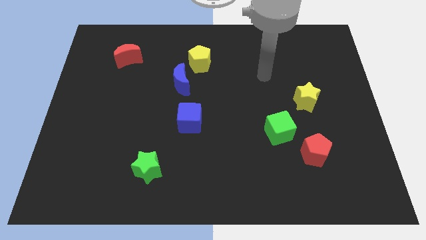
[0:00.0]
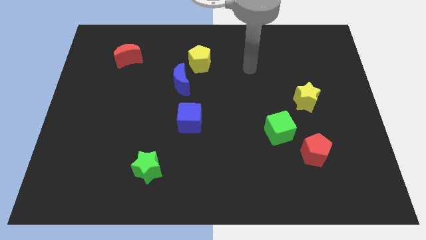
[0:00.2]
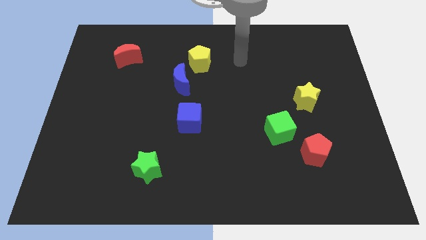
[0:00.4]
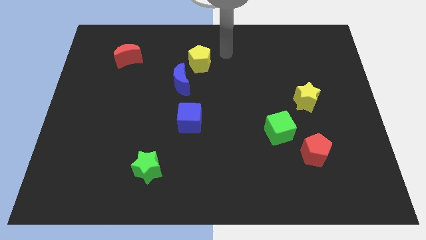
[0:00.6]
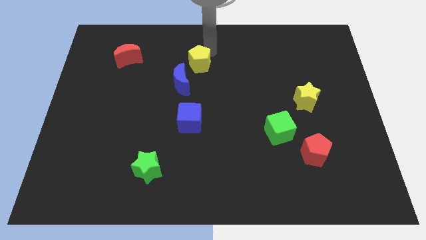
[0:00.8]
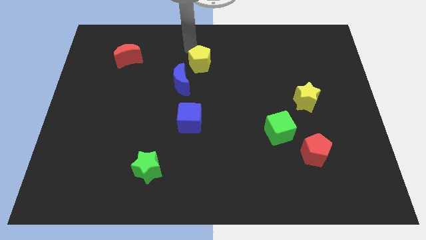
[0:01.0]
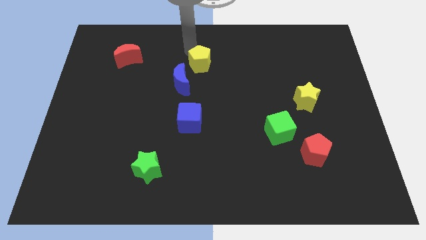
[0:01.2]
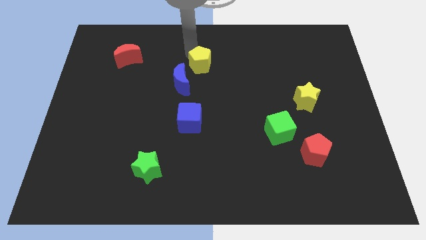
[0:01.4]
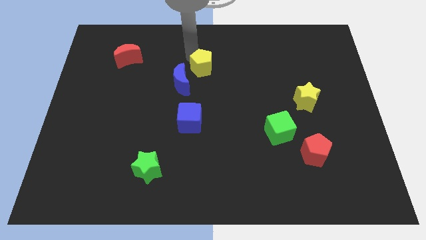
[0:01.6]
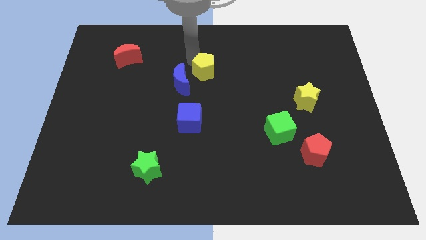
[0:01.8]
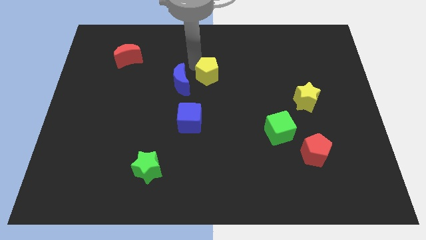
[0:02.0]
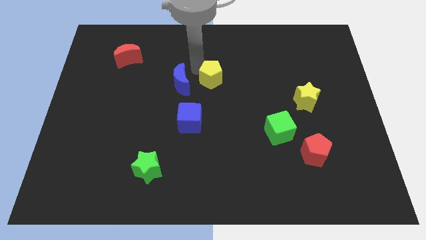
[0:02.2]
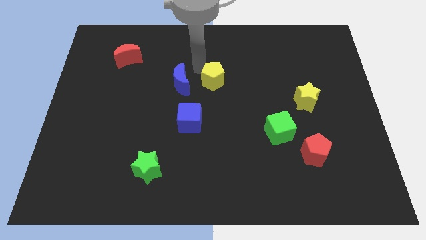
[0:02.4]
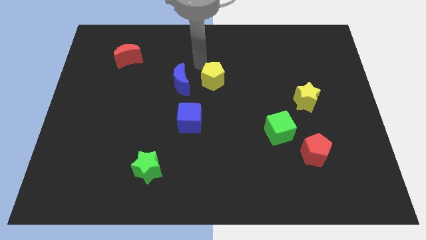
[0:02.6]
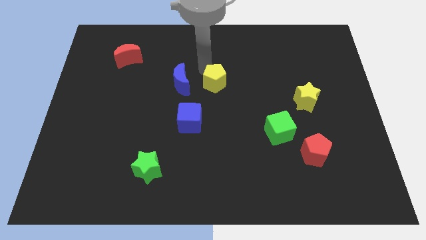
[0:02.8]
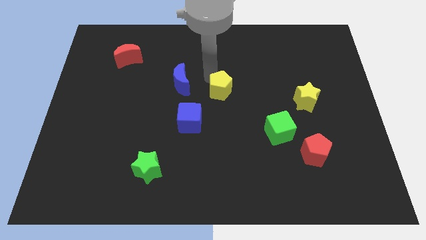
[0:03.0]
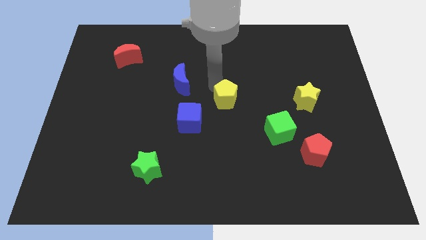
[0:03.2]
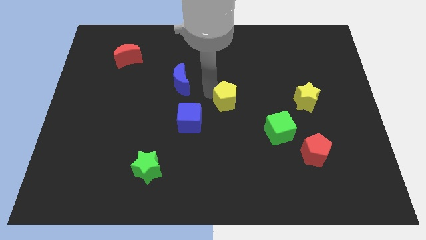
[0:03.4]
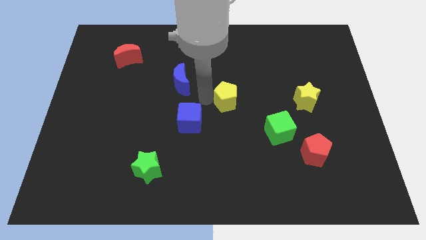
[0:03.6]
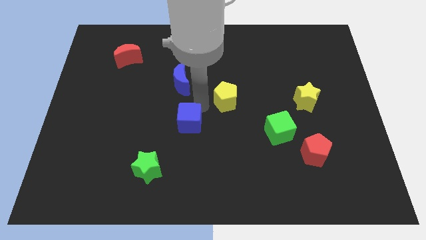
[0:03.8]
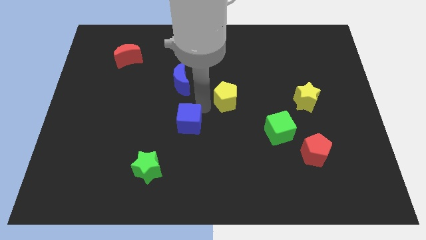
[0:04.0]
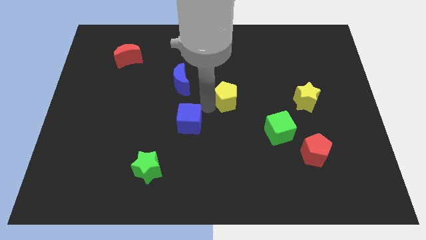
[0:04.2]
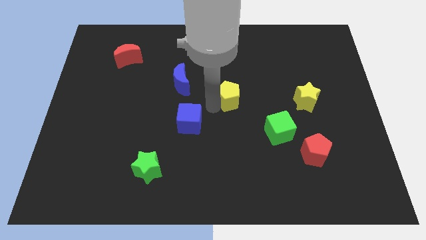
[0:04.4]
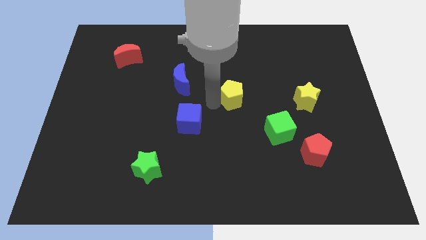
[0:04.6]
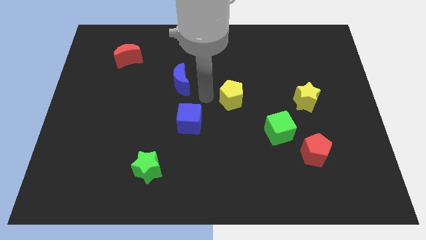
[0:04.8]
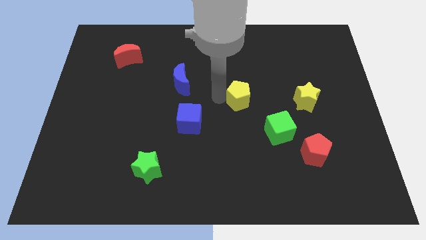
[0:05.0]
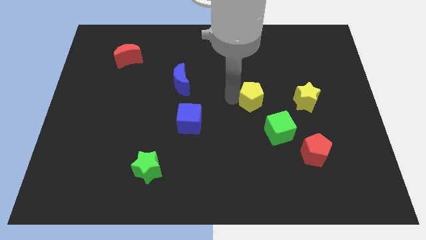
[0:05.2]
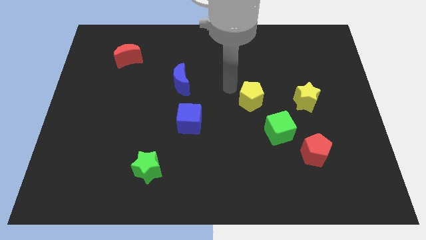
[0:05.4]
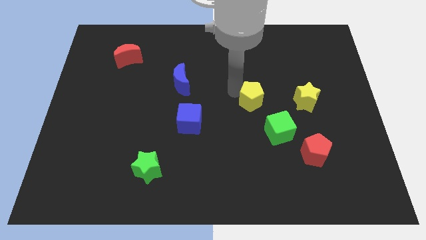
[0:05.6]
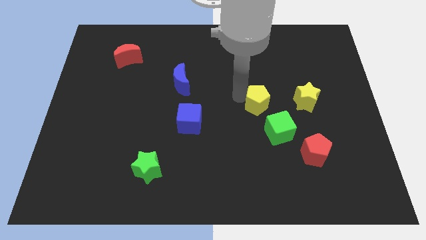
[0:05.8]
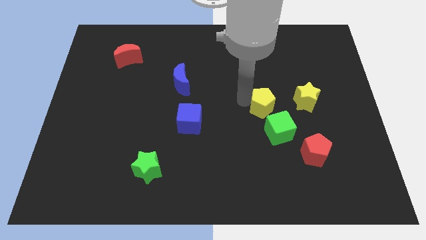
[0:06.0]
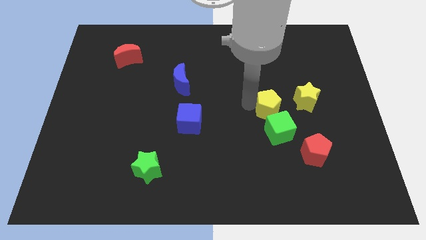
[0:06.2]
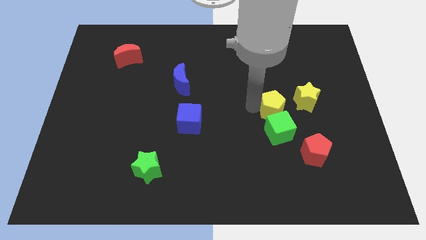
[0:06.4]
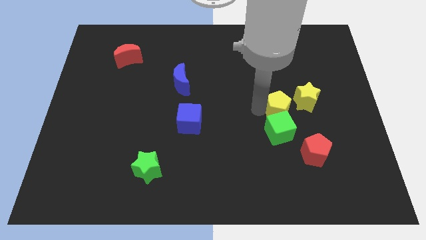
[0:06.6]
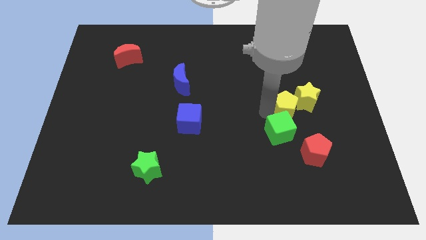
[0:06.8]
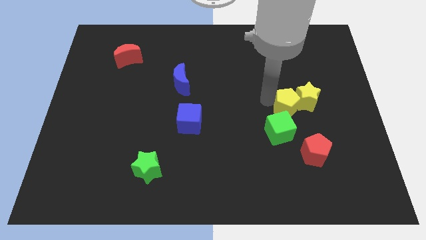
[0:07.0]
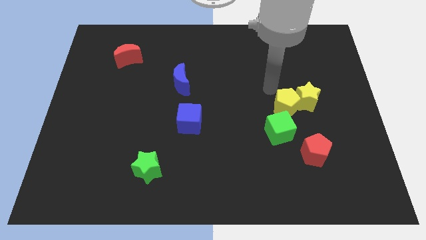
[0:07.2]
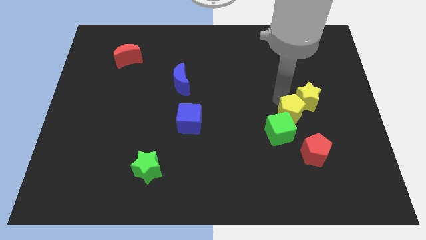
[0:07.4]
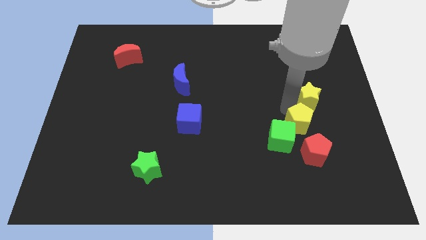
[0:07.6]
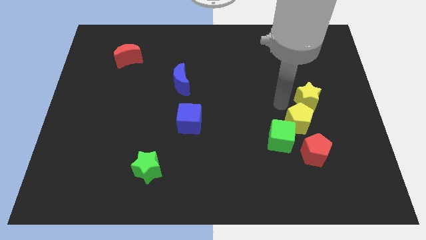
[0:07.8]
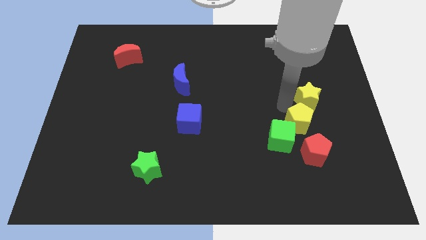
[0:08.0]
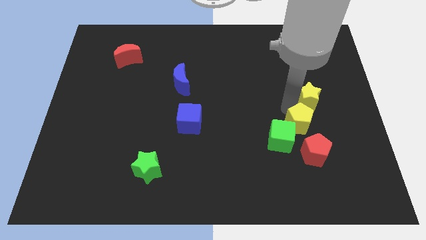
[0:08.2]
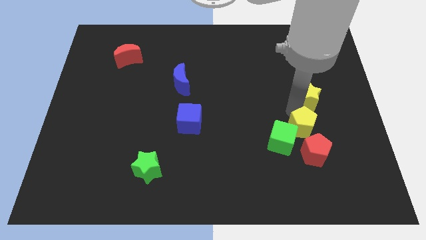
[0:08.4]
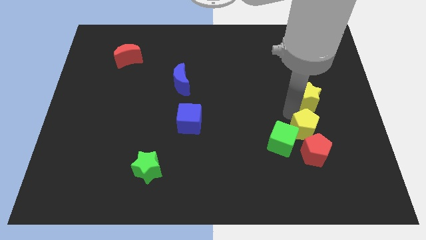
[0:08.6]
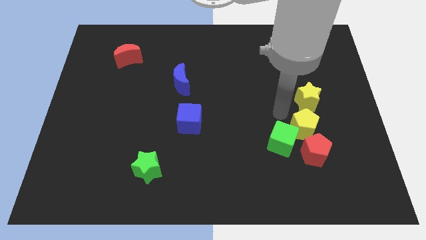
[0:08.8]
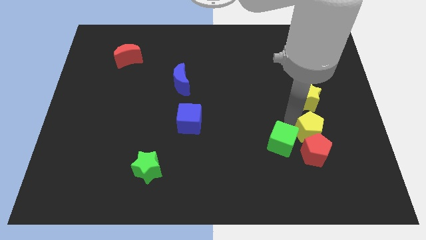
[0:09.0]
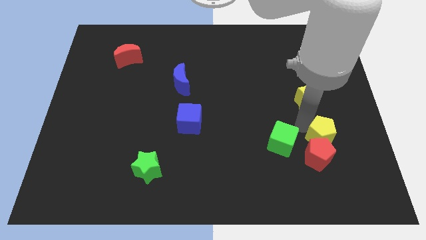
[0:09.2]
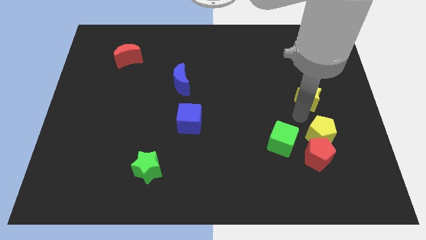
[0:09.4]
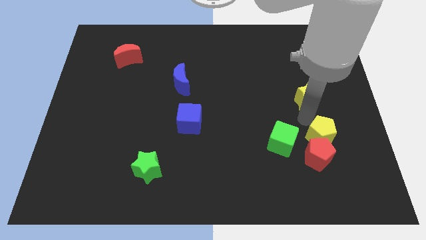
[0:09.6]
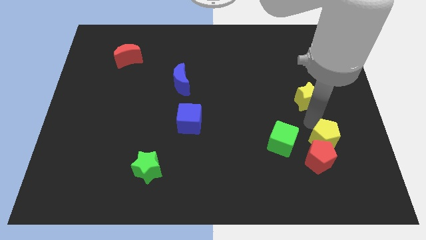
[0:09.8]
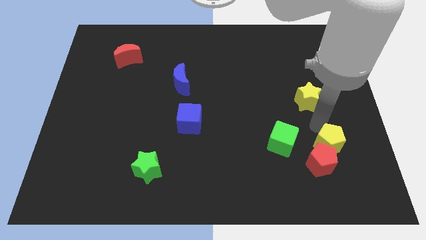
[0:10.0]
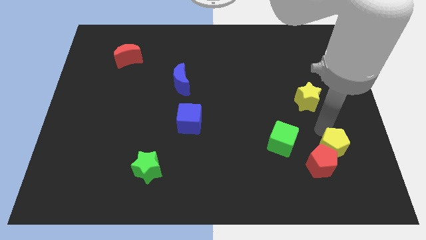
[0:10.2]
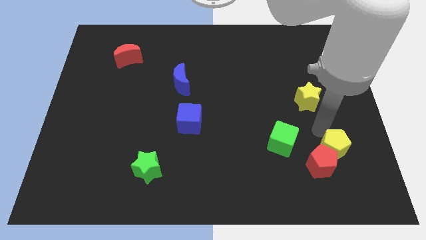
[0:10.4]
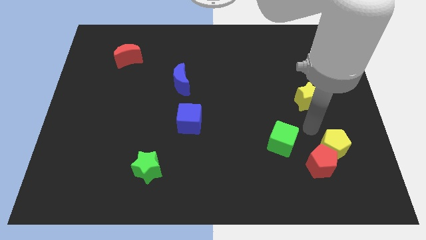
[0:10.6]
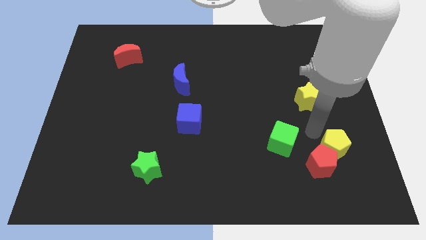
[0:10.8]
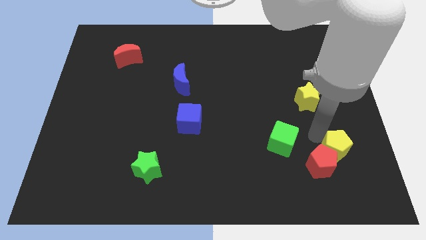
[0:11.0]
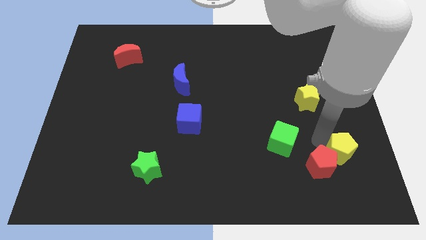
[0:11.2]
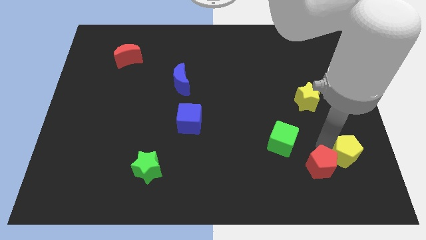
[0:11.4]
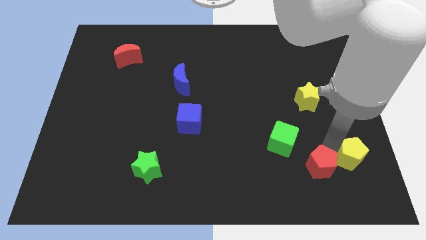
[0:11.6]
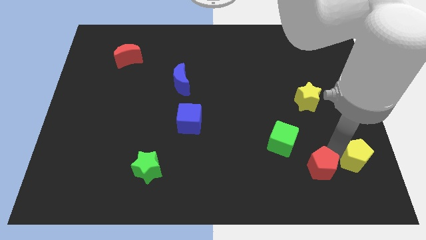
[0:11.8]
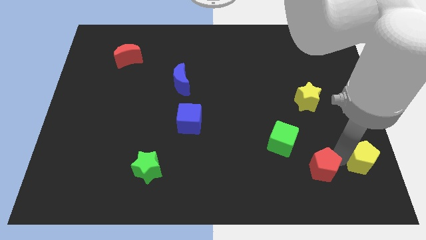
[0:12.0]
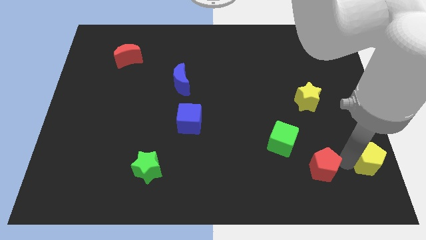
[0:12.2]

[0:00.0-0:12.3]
push the yellow pentagon to the bottom right corner
